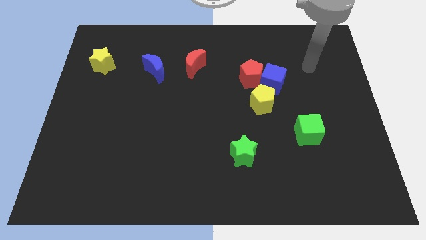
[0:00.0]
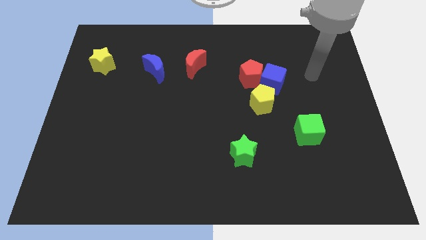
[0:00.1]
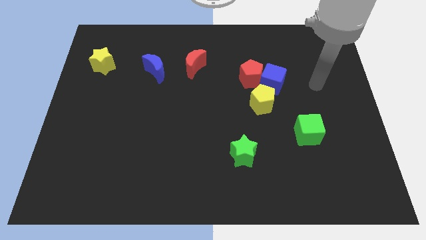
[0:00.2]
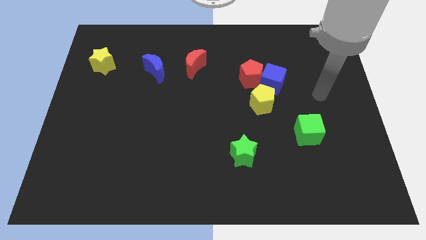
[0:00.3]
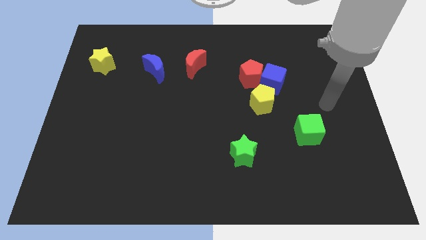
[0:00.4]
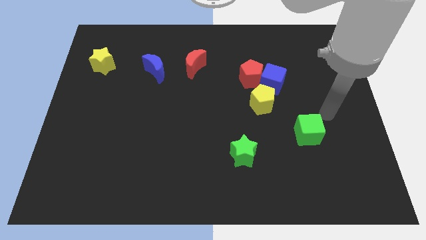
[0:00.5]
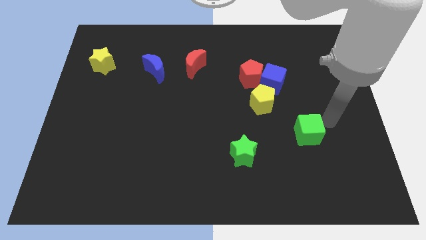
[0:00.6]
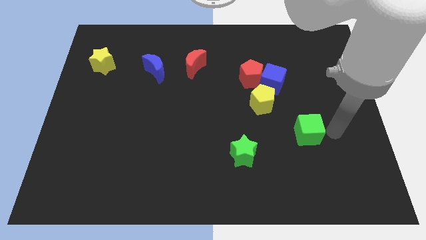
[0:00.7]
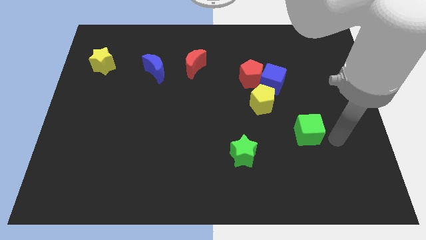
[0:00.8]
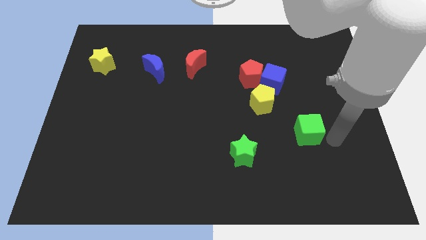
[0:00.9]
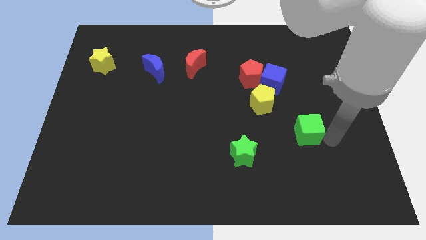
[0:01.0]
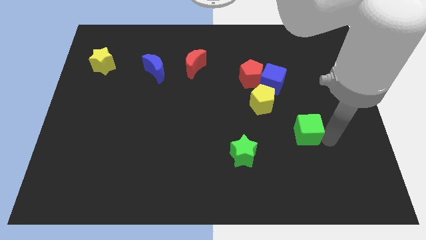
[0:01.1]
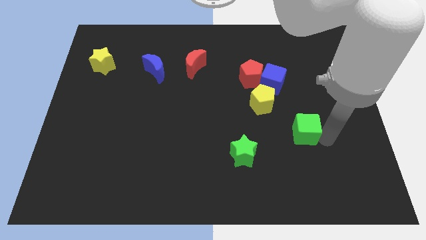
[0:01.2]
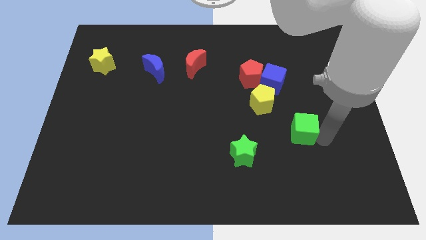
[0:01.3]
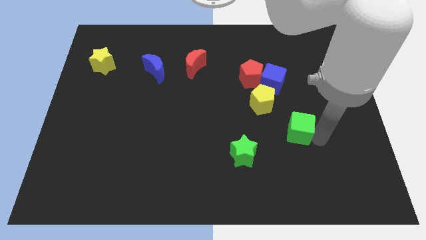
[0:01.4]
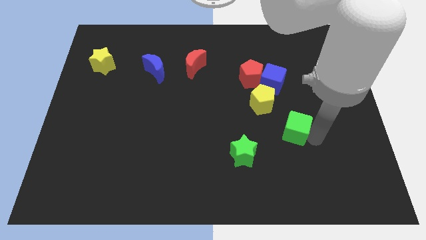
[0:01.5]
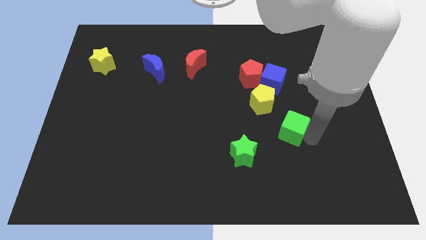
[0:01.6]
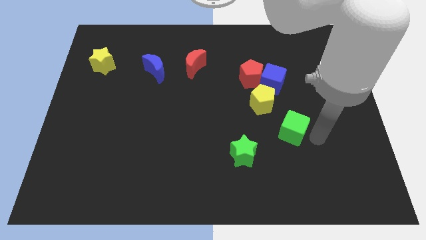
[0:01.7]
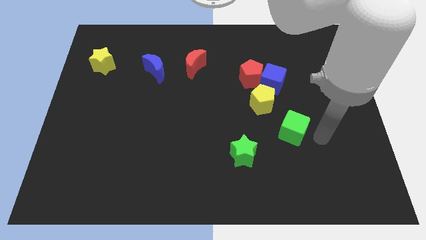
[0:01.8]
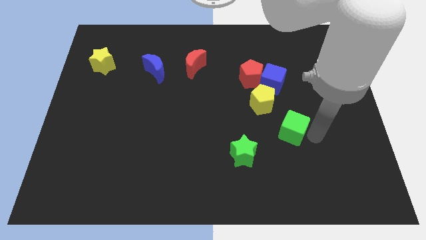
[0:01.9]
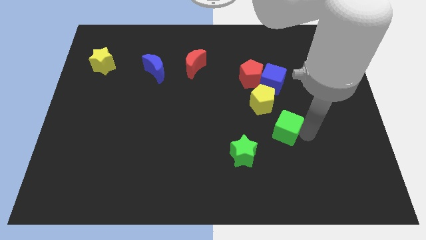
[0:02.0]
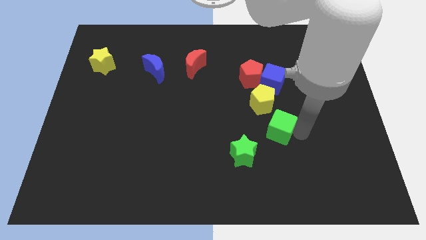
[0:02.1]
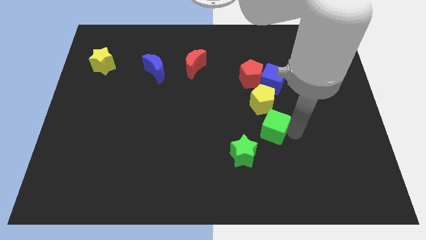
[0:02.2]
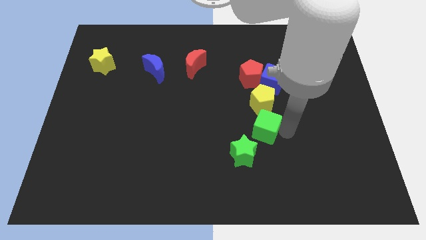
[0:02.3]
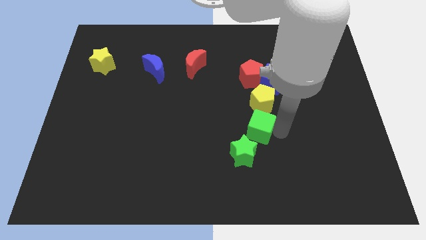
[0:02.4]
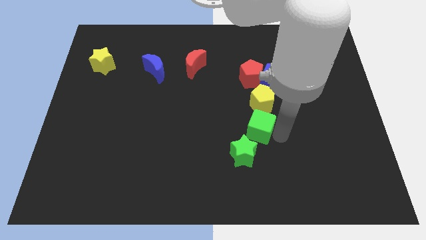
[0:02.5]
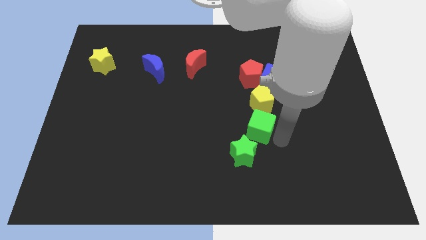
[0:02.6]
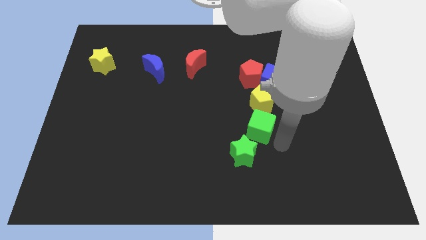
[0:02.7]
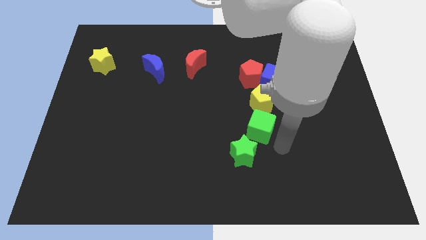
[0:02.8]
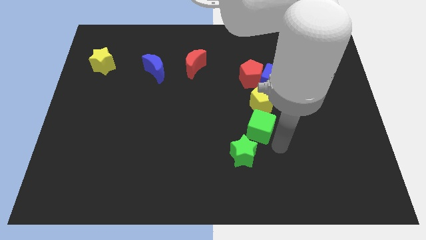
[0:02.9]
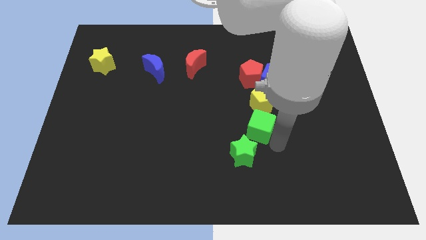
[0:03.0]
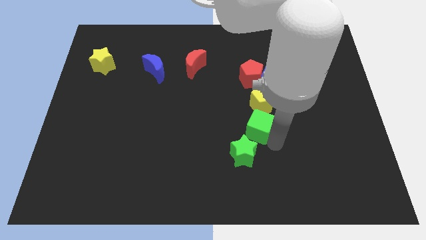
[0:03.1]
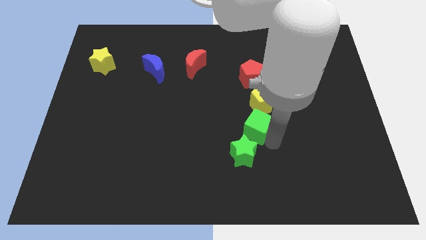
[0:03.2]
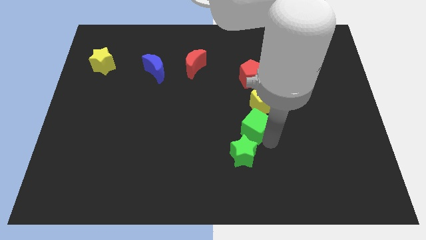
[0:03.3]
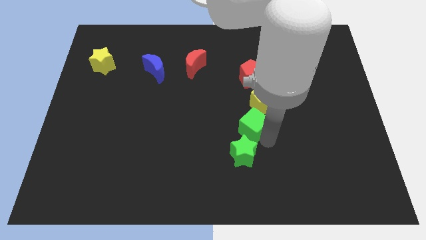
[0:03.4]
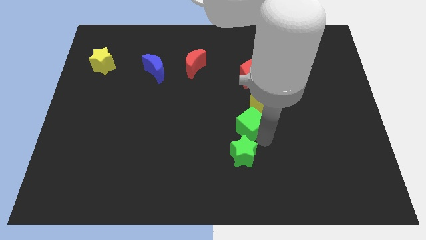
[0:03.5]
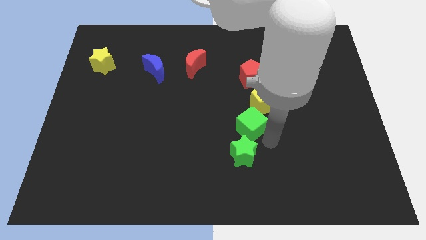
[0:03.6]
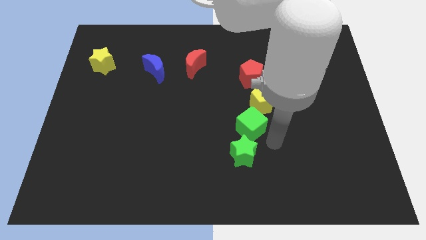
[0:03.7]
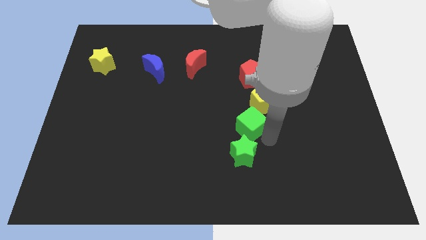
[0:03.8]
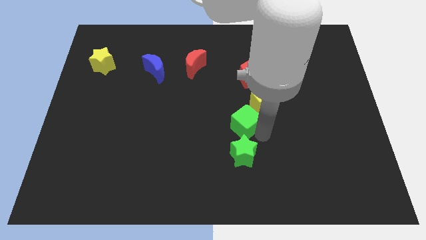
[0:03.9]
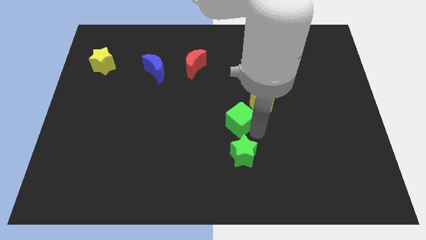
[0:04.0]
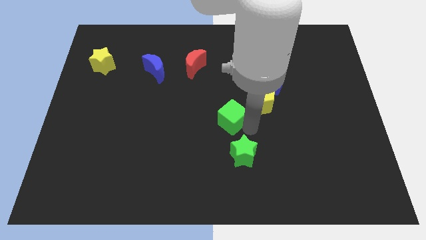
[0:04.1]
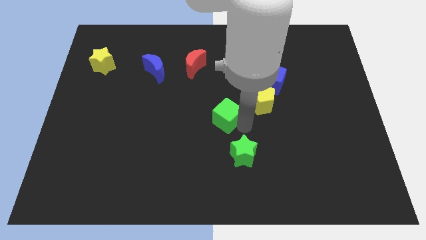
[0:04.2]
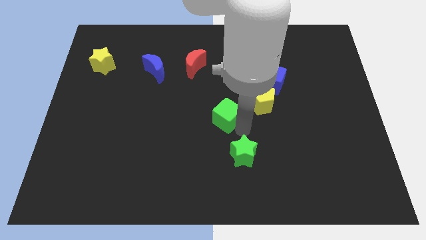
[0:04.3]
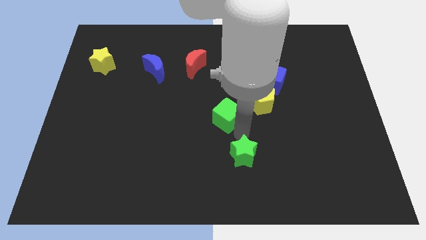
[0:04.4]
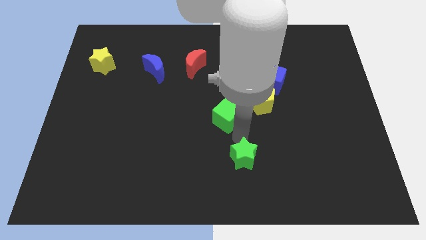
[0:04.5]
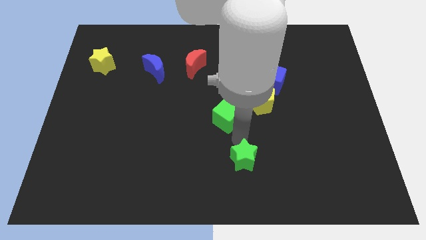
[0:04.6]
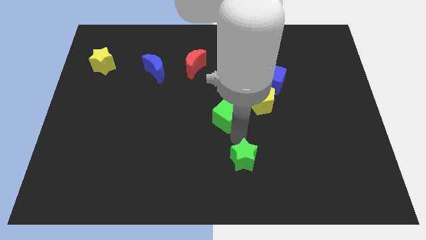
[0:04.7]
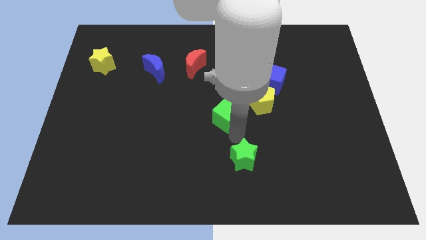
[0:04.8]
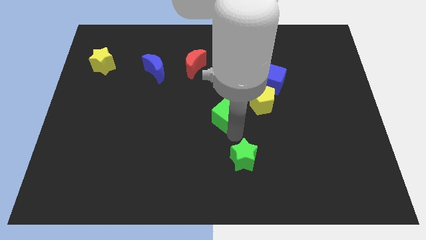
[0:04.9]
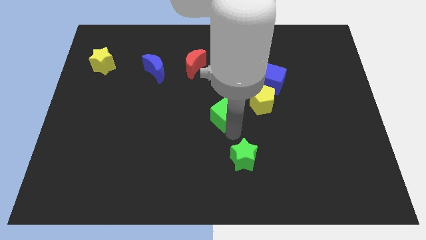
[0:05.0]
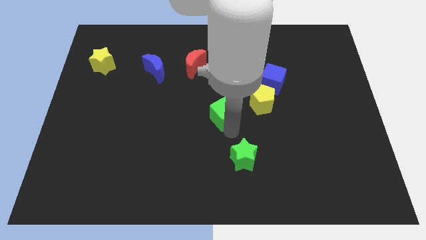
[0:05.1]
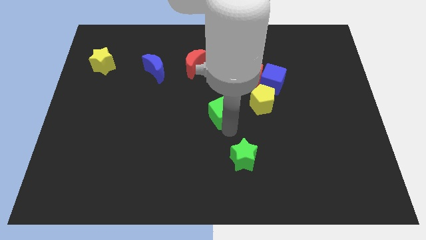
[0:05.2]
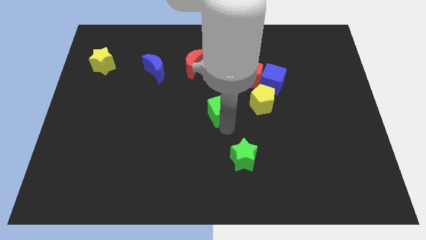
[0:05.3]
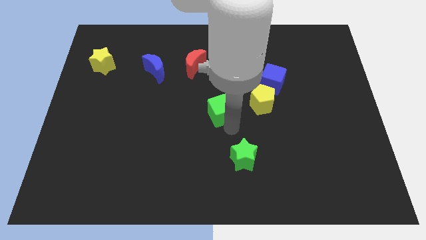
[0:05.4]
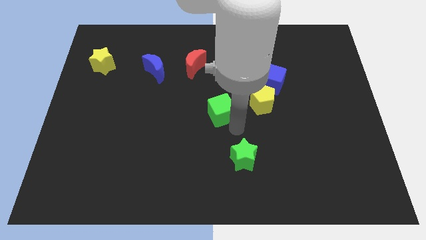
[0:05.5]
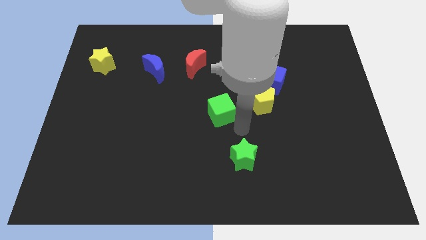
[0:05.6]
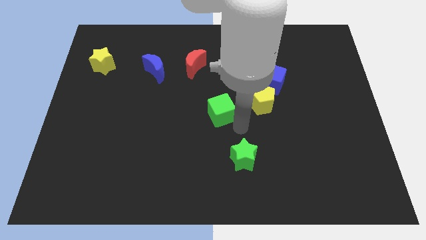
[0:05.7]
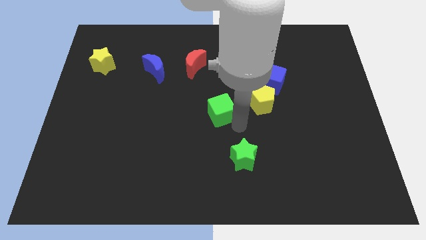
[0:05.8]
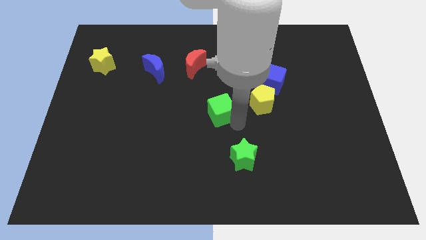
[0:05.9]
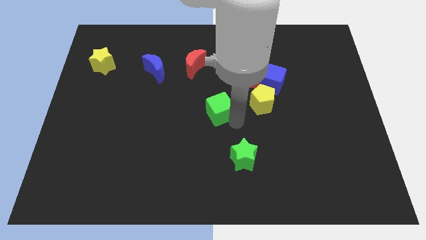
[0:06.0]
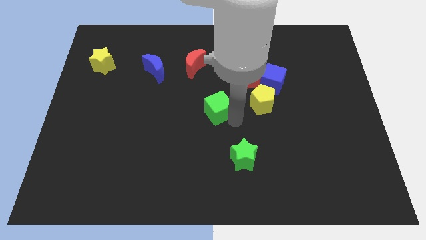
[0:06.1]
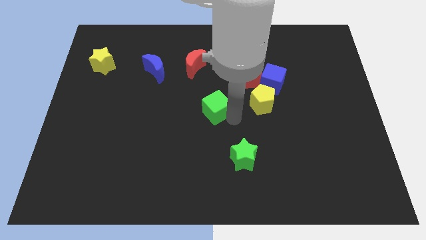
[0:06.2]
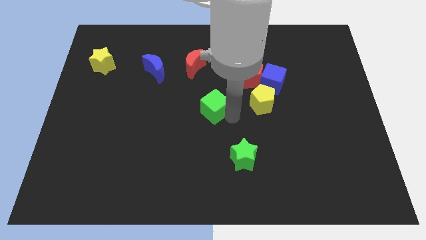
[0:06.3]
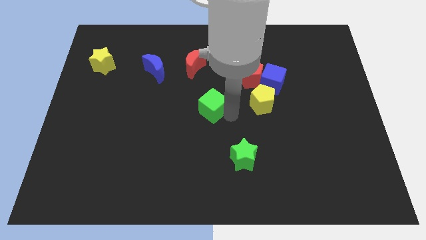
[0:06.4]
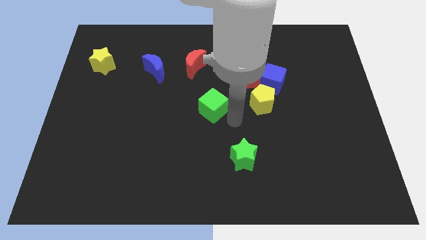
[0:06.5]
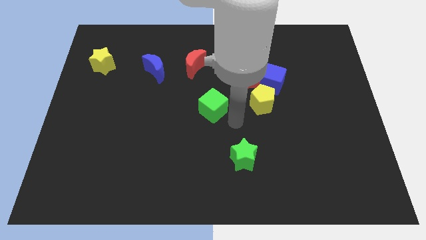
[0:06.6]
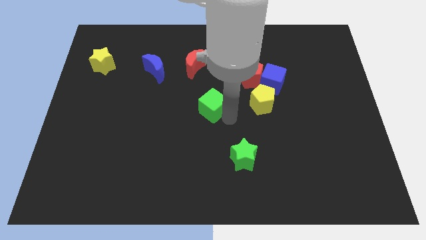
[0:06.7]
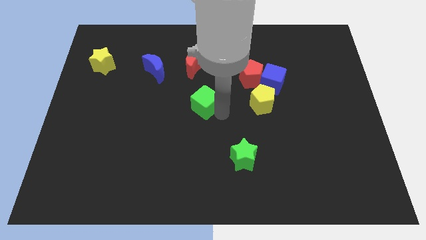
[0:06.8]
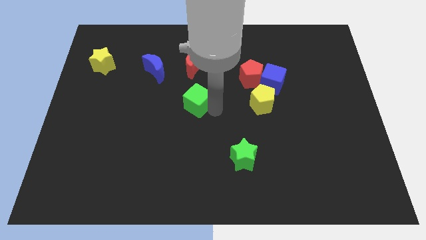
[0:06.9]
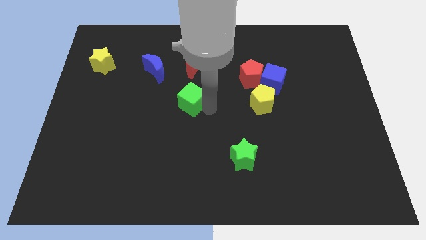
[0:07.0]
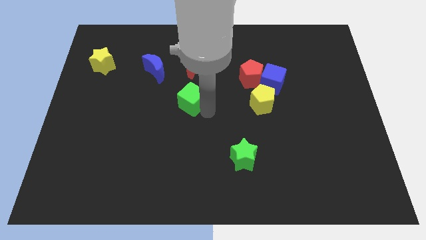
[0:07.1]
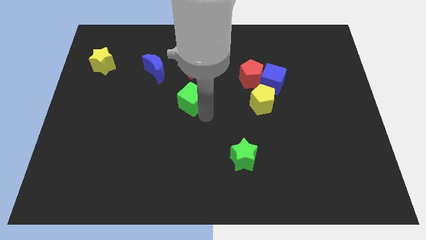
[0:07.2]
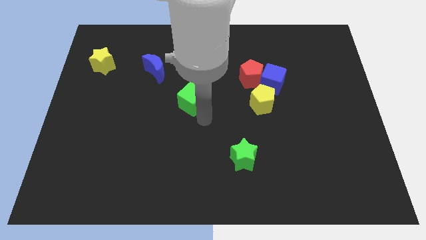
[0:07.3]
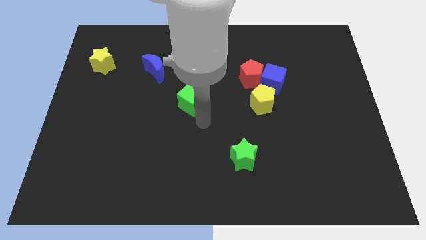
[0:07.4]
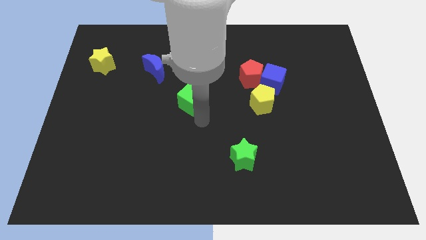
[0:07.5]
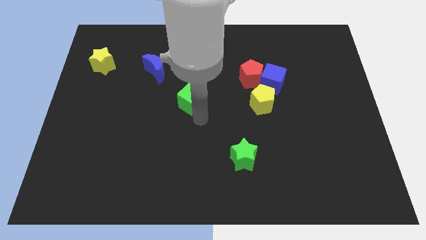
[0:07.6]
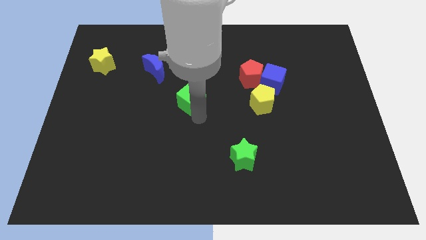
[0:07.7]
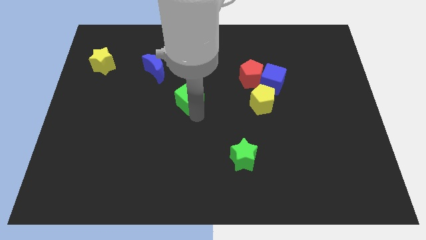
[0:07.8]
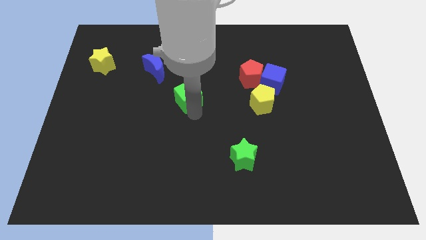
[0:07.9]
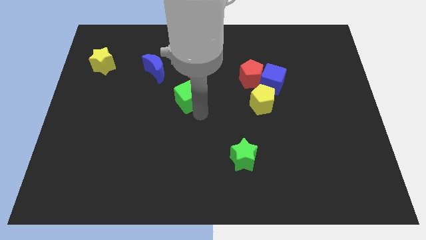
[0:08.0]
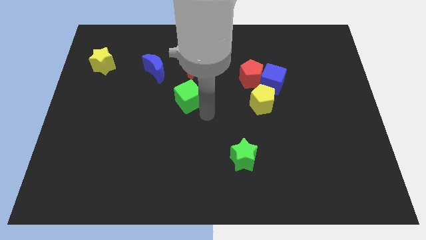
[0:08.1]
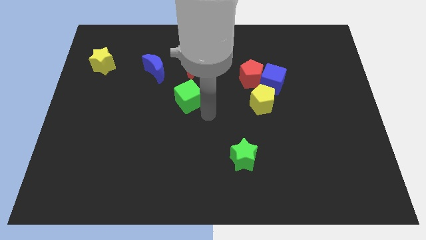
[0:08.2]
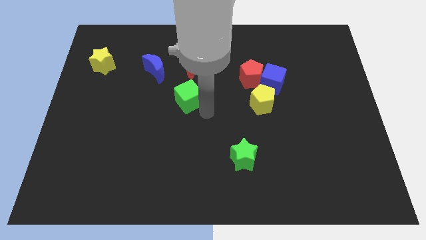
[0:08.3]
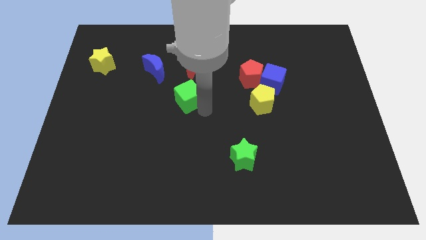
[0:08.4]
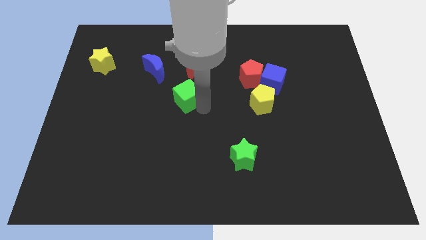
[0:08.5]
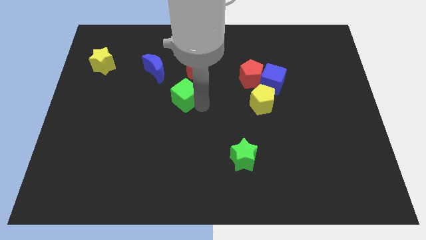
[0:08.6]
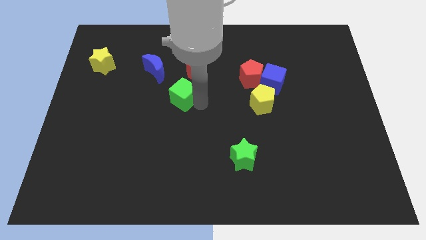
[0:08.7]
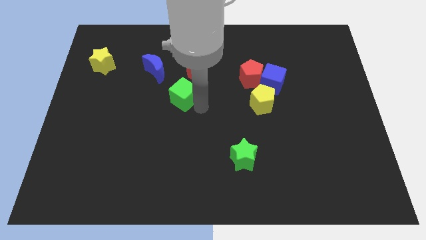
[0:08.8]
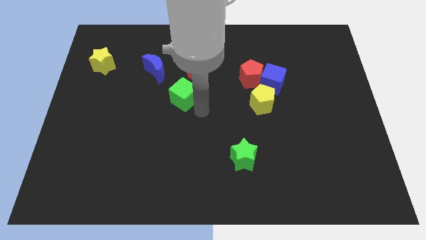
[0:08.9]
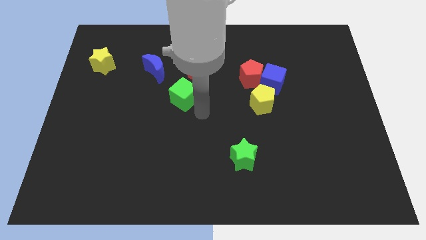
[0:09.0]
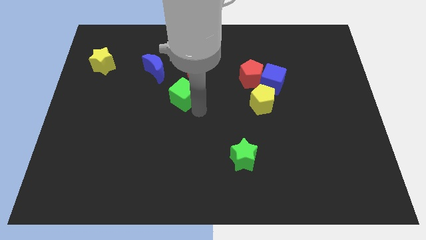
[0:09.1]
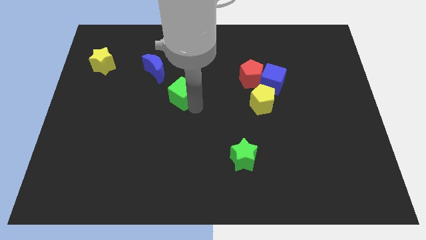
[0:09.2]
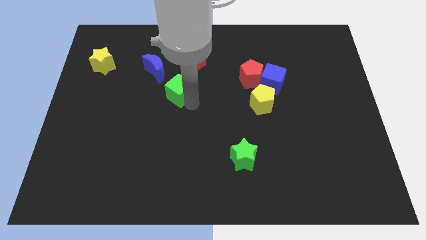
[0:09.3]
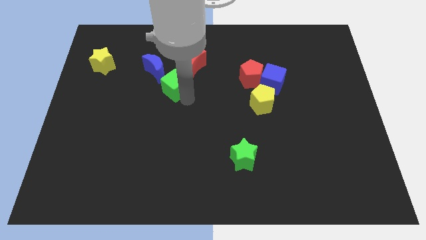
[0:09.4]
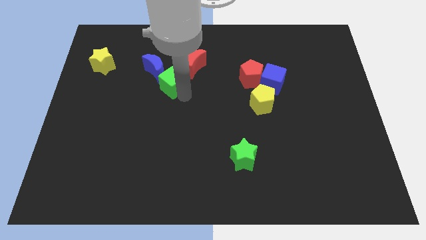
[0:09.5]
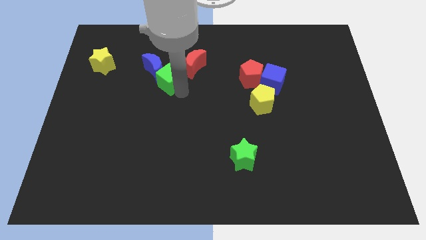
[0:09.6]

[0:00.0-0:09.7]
push the green cube to the blue moon
